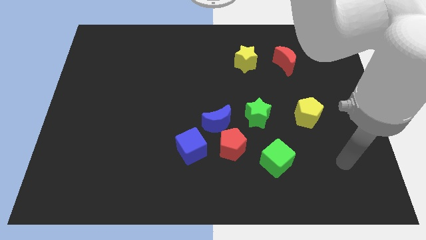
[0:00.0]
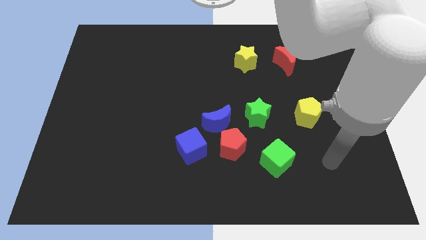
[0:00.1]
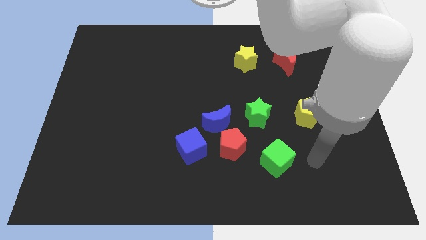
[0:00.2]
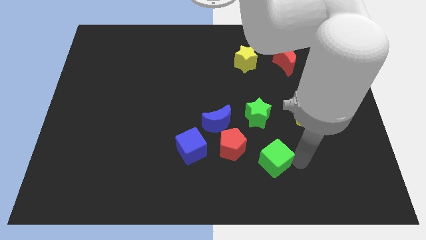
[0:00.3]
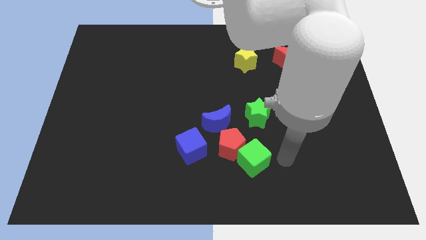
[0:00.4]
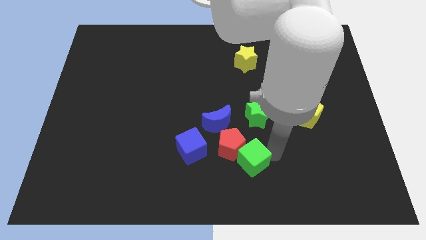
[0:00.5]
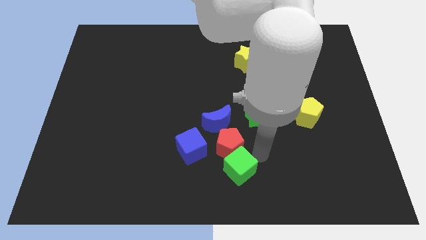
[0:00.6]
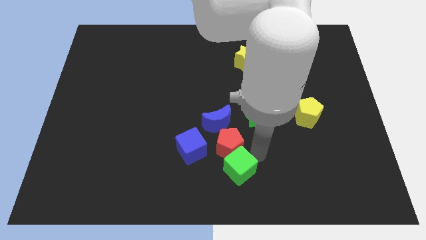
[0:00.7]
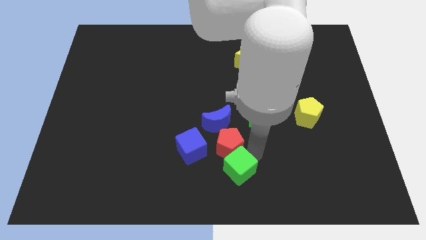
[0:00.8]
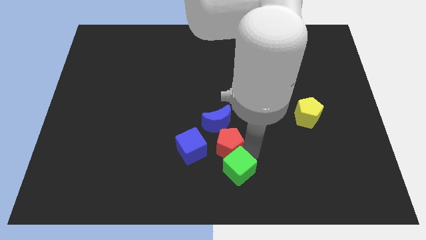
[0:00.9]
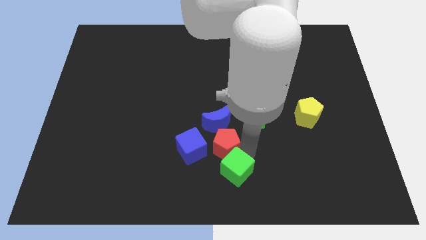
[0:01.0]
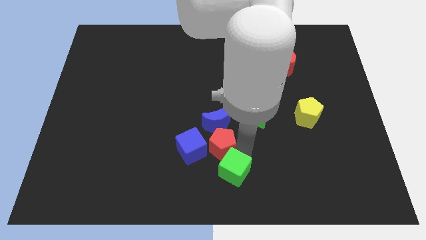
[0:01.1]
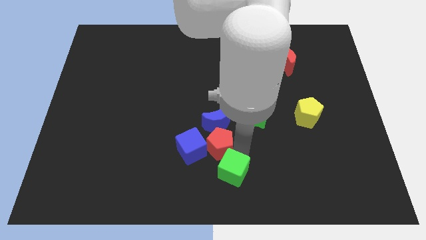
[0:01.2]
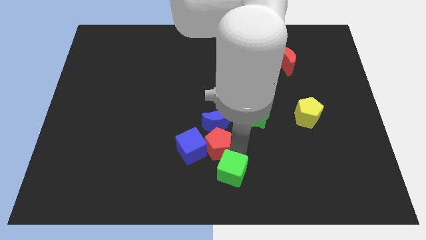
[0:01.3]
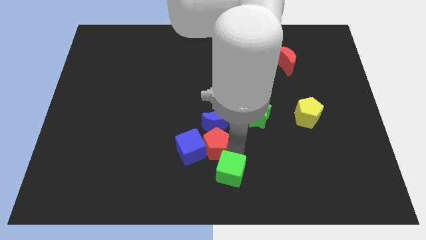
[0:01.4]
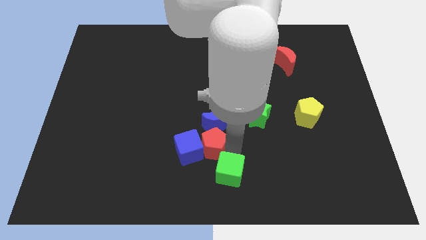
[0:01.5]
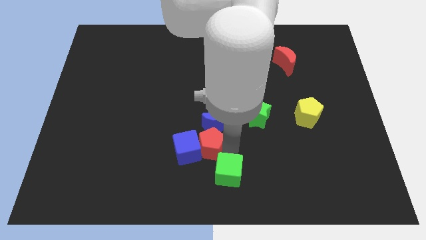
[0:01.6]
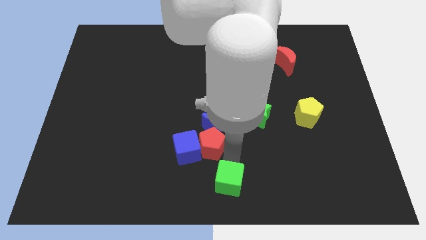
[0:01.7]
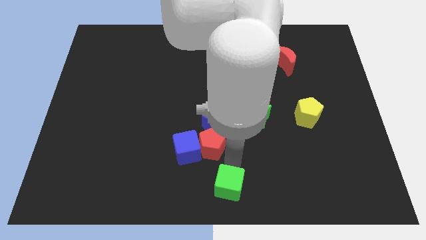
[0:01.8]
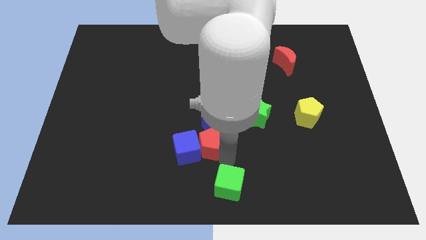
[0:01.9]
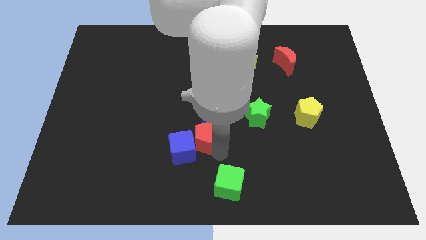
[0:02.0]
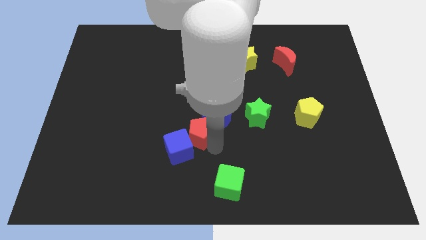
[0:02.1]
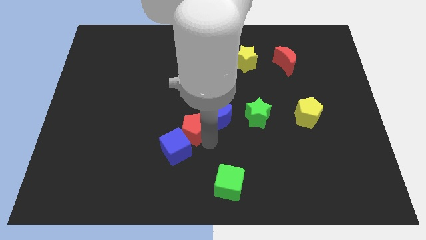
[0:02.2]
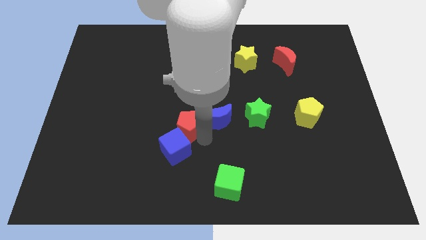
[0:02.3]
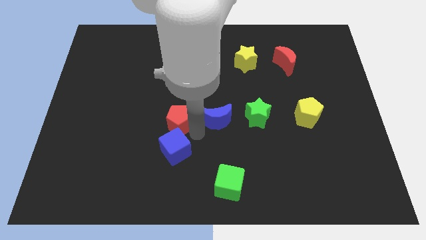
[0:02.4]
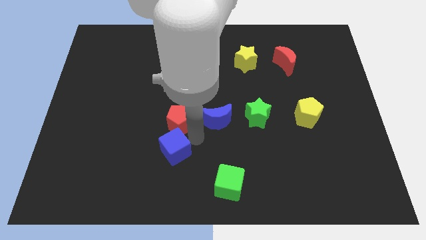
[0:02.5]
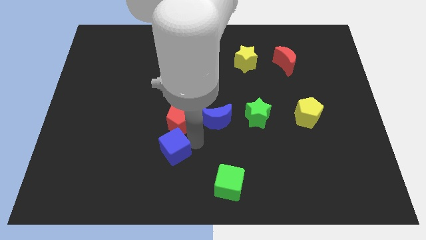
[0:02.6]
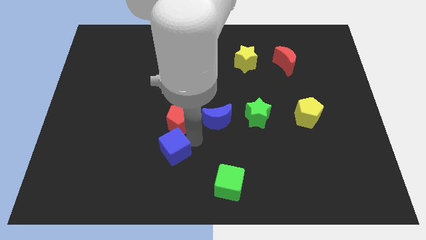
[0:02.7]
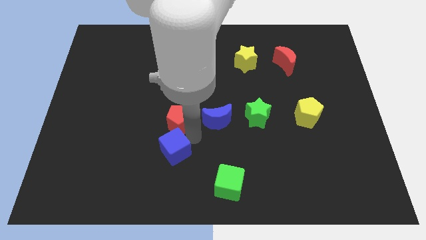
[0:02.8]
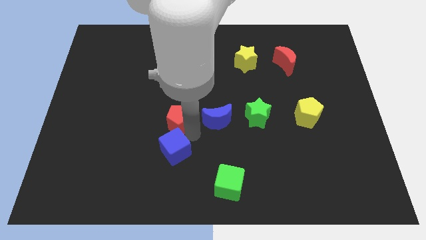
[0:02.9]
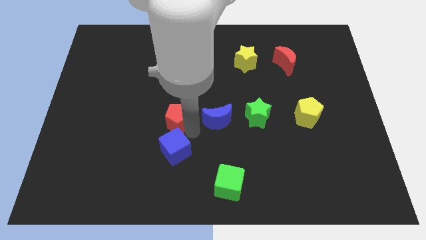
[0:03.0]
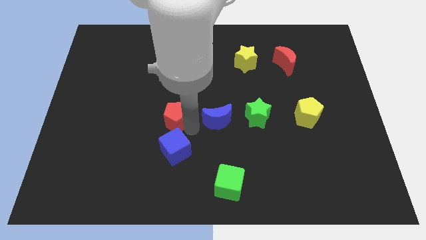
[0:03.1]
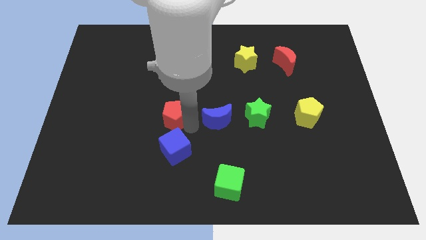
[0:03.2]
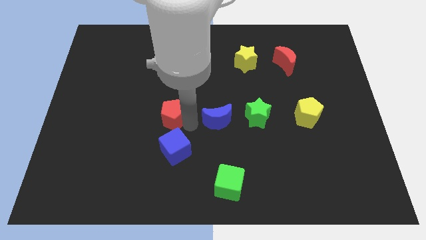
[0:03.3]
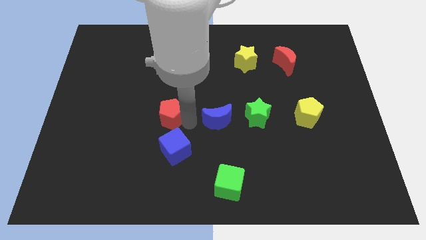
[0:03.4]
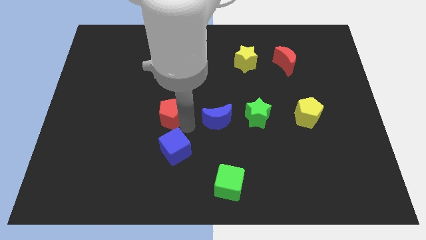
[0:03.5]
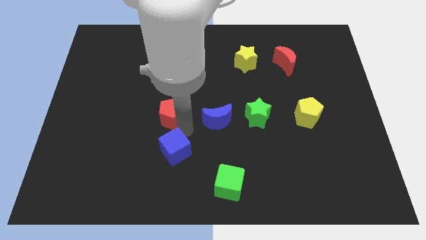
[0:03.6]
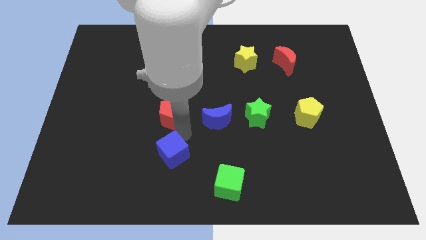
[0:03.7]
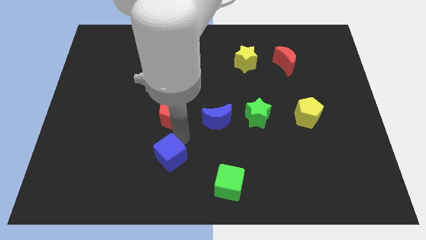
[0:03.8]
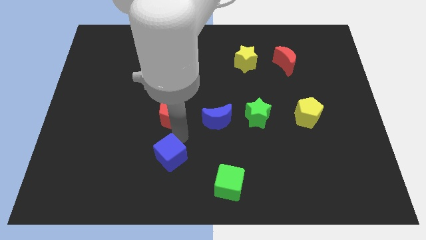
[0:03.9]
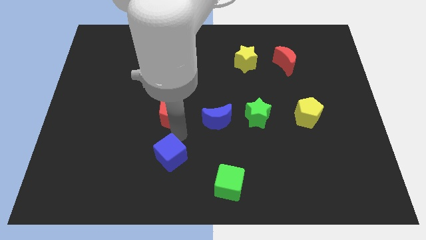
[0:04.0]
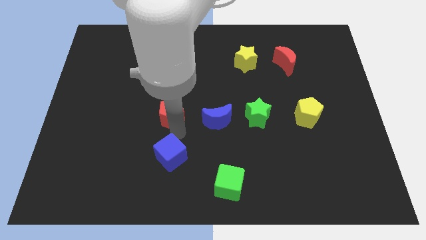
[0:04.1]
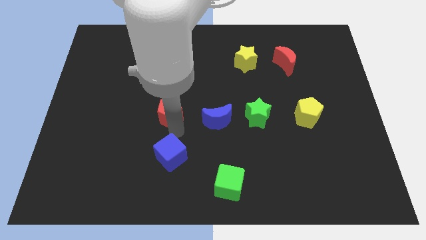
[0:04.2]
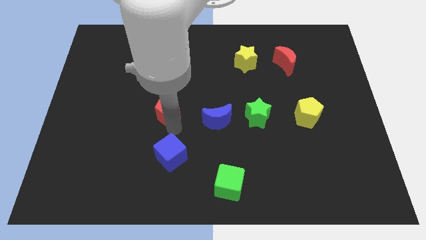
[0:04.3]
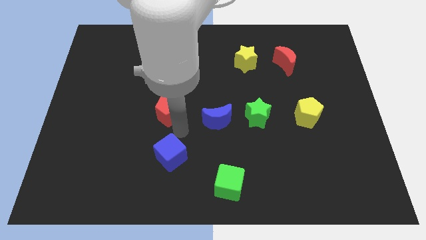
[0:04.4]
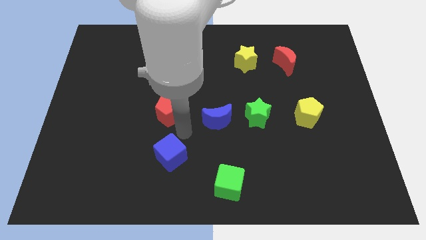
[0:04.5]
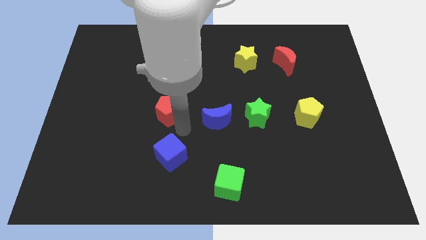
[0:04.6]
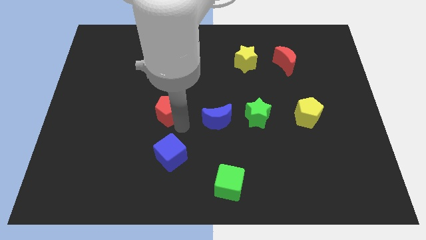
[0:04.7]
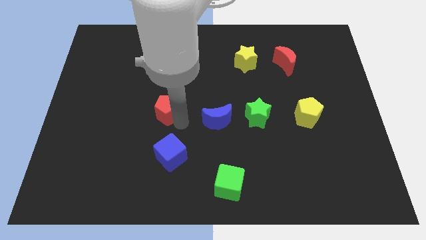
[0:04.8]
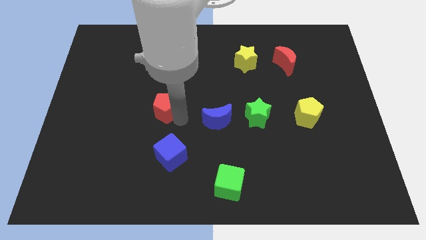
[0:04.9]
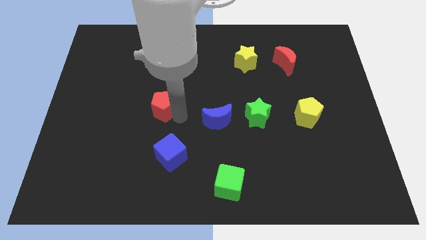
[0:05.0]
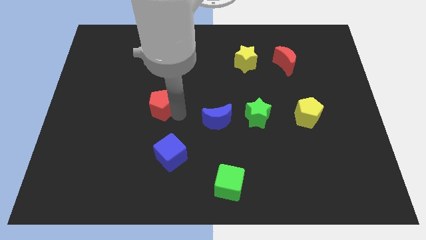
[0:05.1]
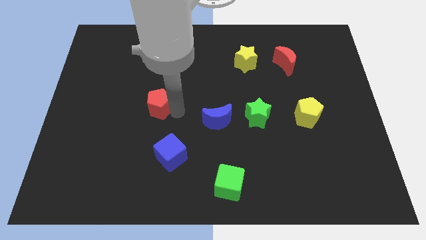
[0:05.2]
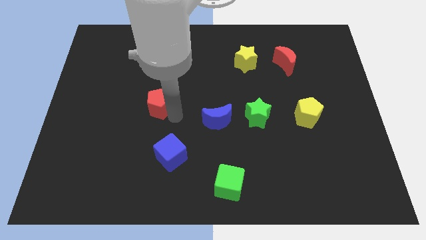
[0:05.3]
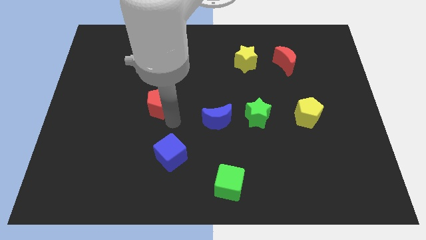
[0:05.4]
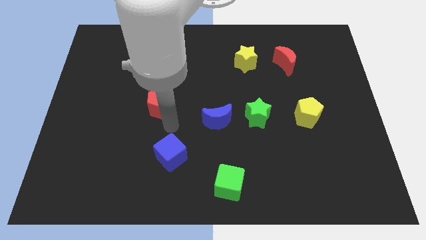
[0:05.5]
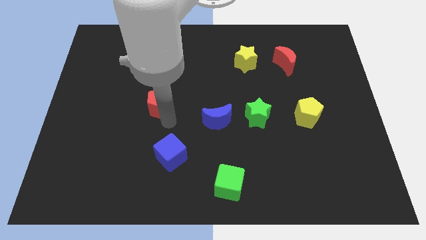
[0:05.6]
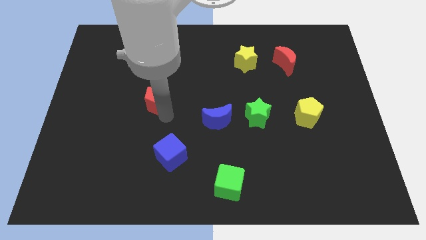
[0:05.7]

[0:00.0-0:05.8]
move the red pentagon upwards and to the left diagonally

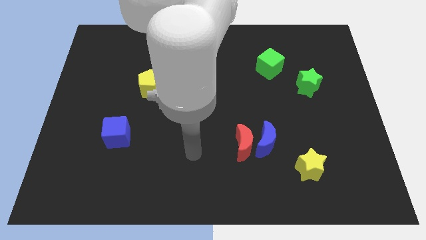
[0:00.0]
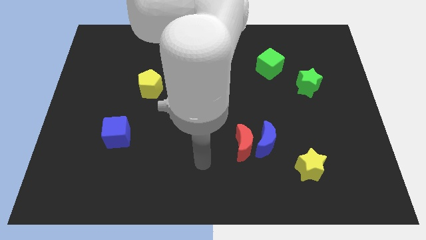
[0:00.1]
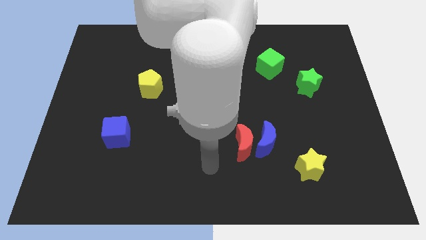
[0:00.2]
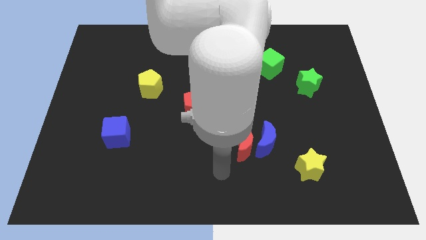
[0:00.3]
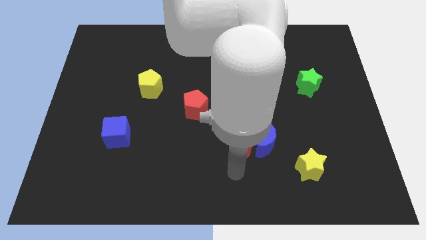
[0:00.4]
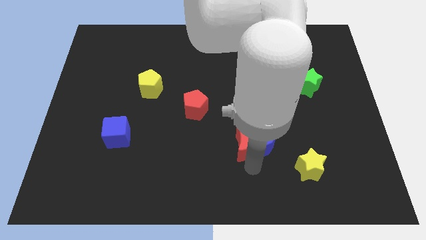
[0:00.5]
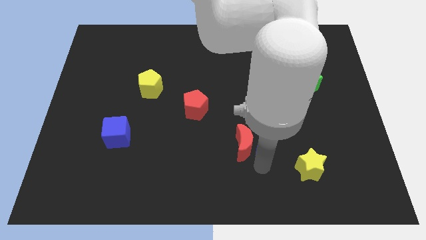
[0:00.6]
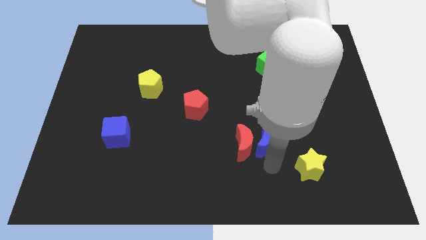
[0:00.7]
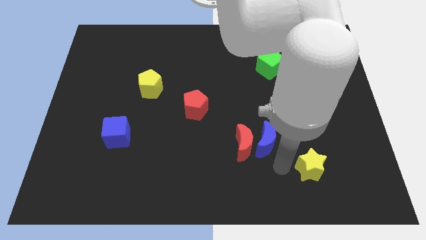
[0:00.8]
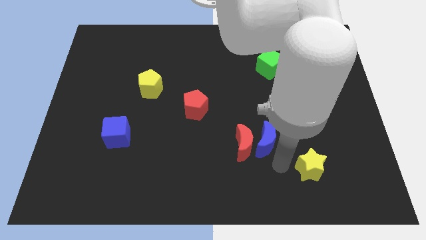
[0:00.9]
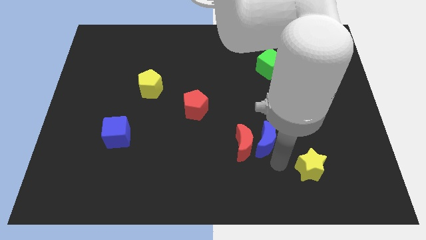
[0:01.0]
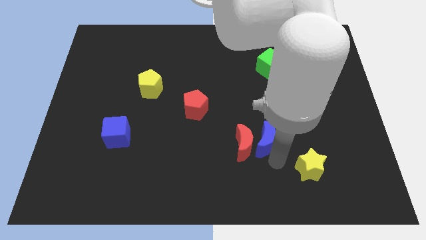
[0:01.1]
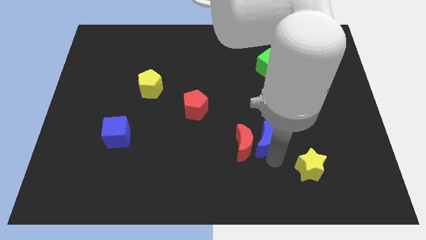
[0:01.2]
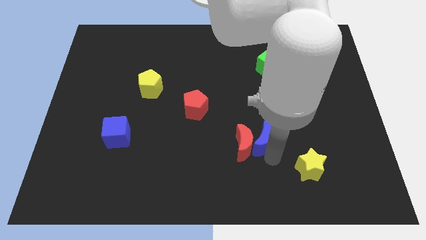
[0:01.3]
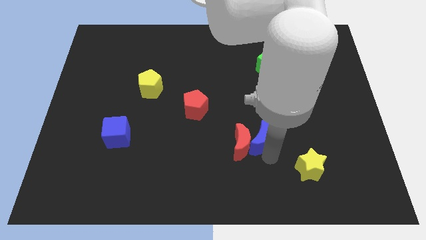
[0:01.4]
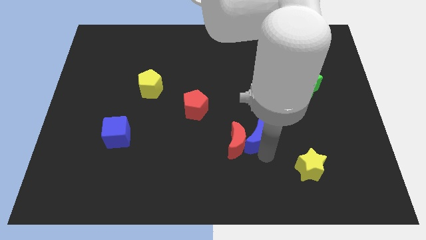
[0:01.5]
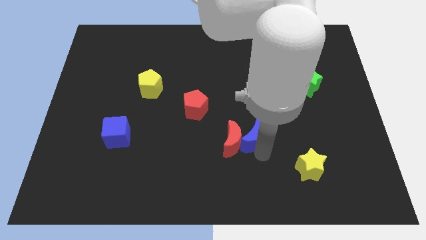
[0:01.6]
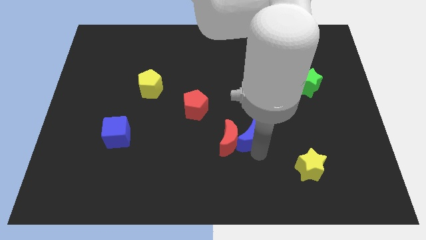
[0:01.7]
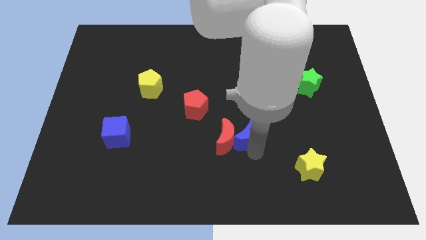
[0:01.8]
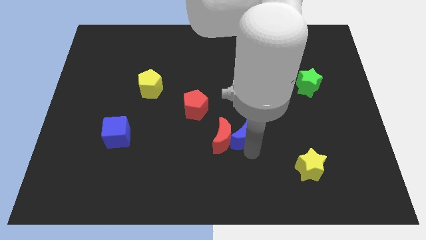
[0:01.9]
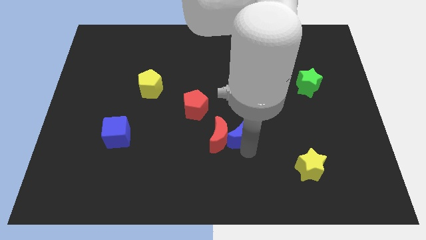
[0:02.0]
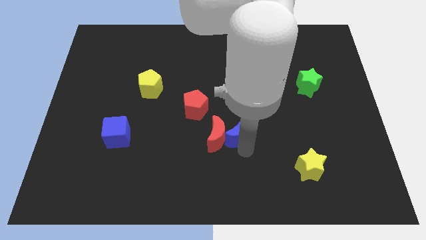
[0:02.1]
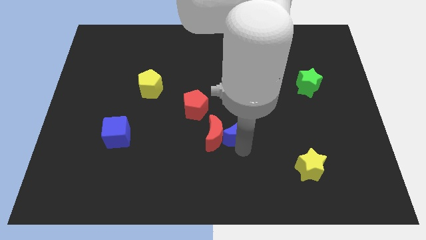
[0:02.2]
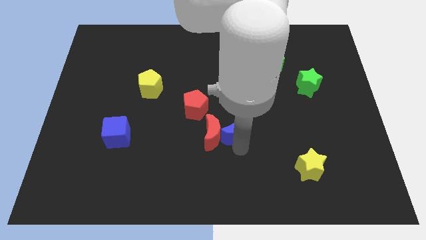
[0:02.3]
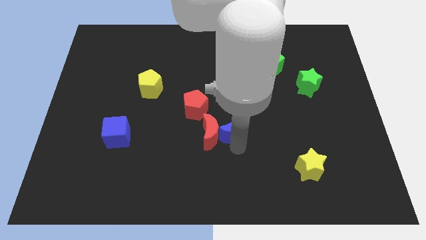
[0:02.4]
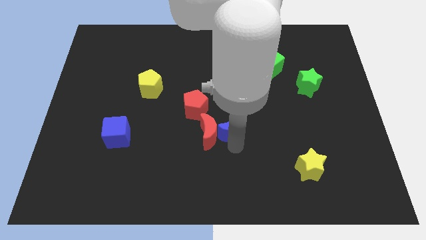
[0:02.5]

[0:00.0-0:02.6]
slightly move the blue moon upwards and then left
